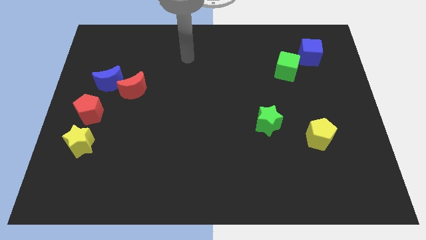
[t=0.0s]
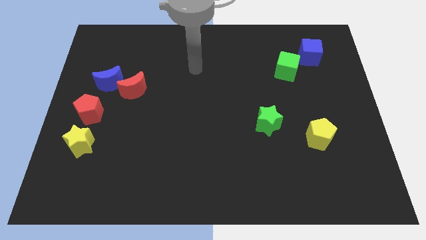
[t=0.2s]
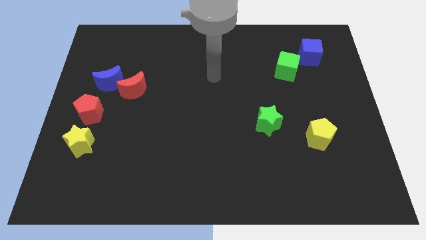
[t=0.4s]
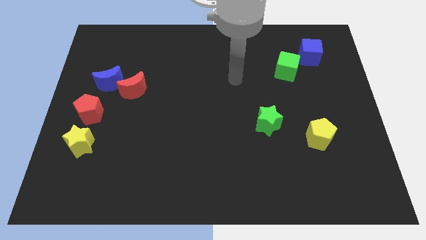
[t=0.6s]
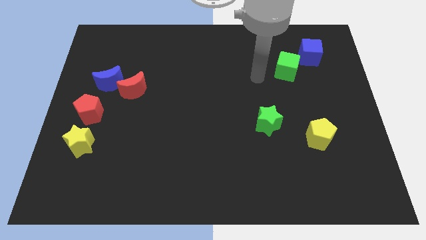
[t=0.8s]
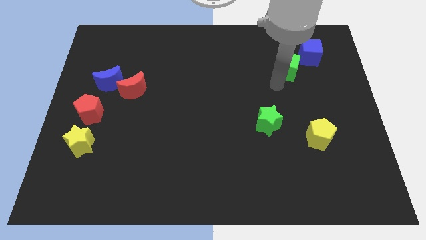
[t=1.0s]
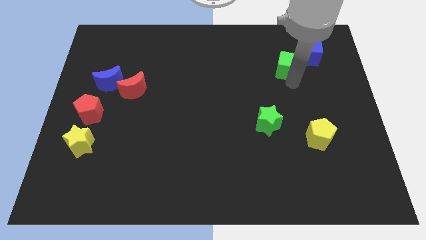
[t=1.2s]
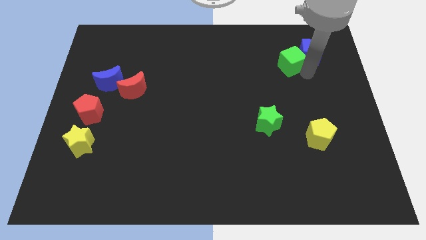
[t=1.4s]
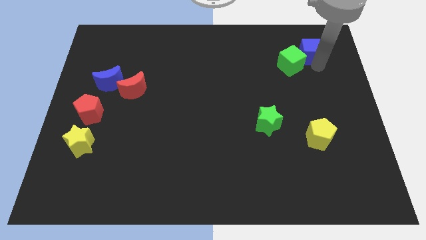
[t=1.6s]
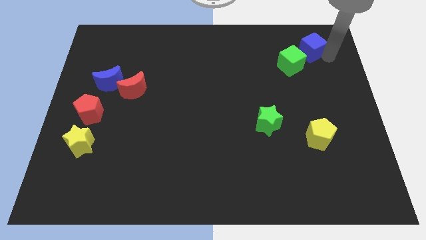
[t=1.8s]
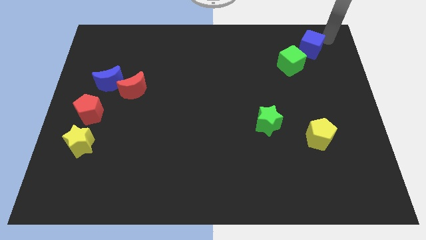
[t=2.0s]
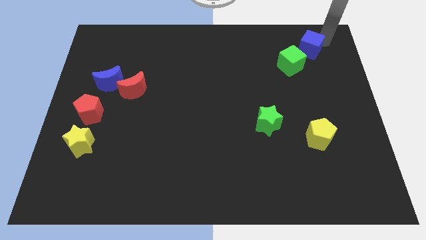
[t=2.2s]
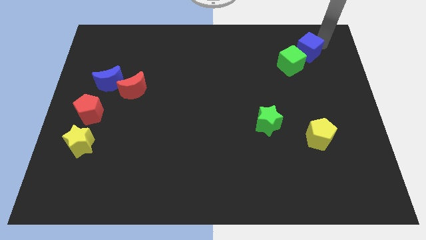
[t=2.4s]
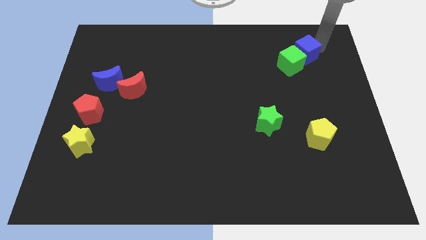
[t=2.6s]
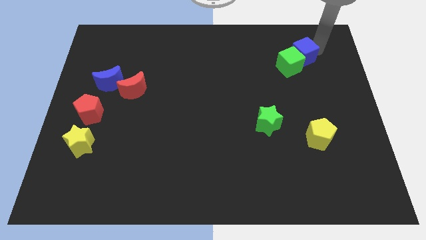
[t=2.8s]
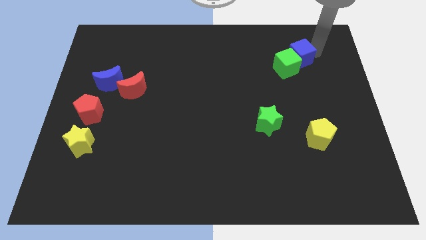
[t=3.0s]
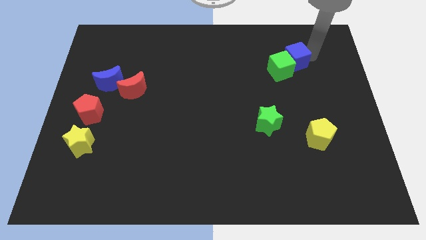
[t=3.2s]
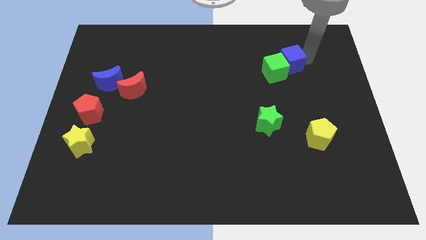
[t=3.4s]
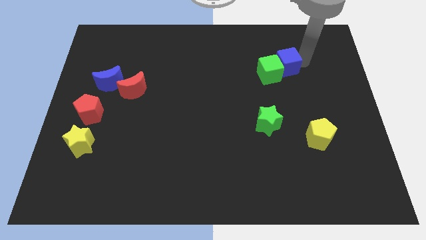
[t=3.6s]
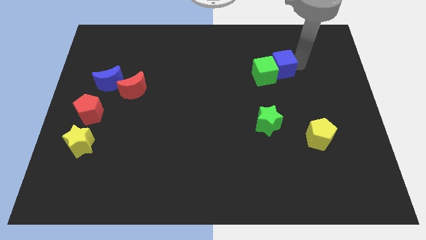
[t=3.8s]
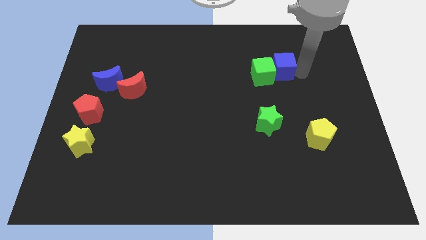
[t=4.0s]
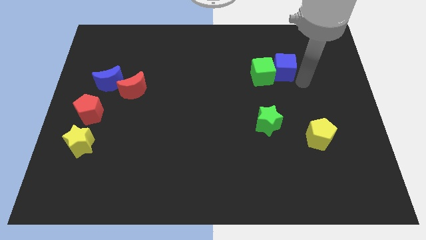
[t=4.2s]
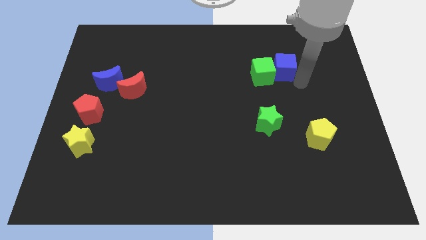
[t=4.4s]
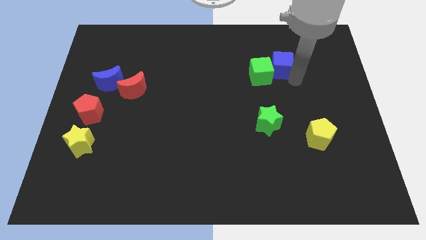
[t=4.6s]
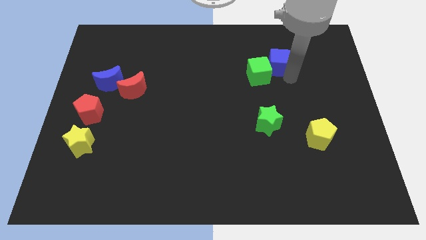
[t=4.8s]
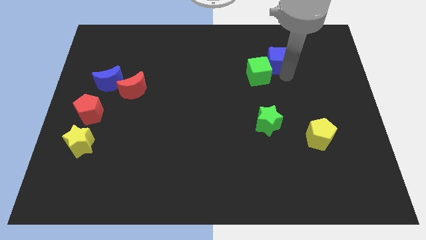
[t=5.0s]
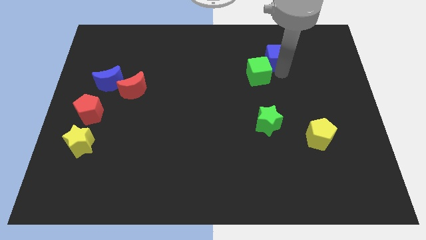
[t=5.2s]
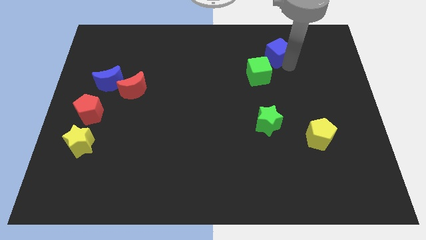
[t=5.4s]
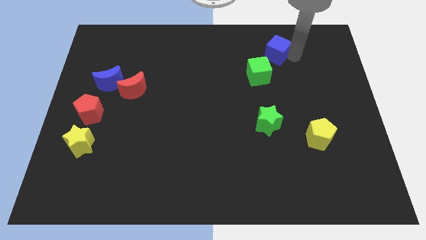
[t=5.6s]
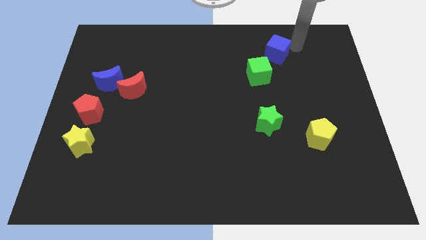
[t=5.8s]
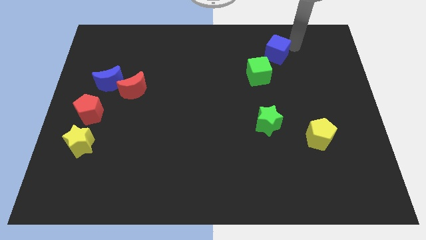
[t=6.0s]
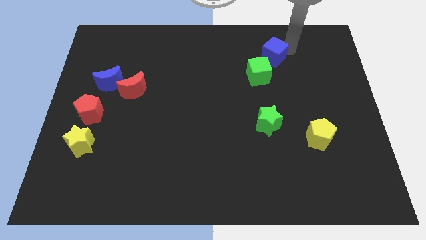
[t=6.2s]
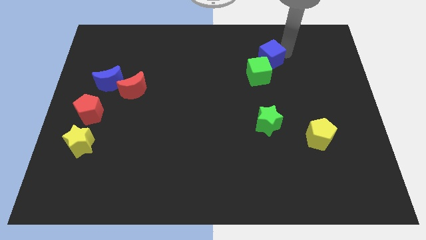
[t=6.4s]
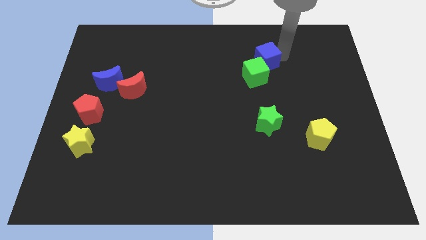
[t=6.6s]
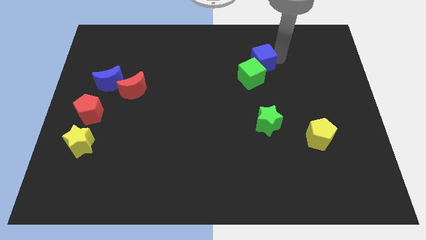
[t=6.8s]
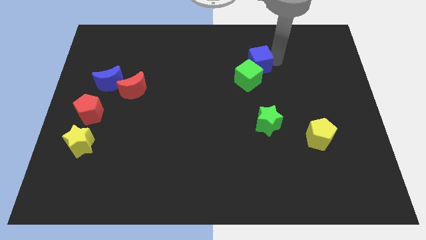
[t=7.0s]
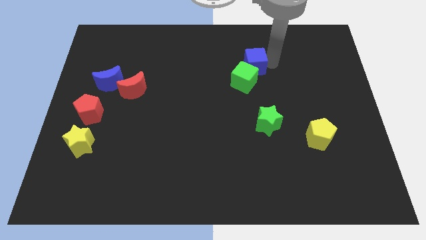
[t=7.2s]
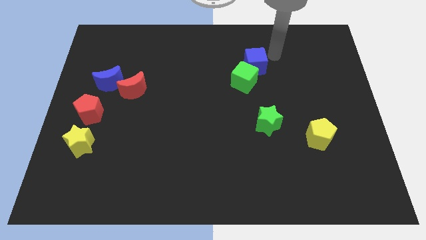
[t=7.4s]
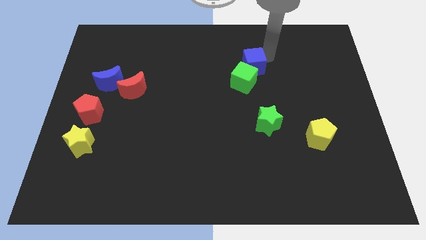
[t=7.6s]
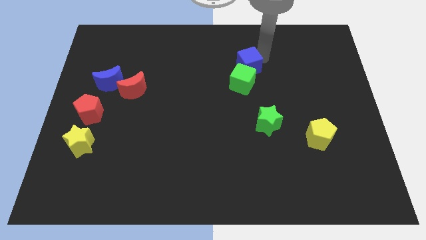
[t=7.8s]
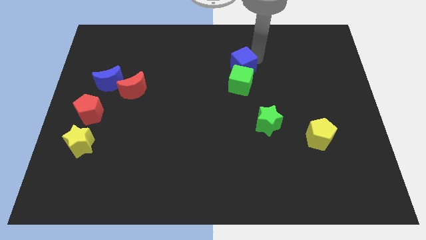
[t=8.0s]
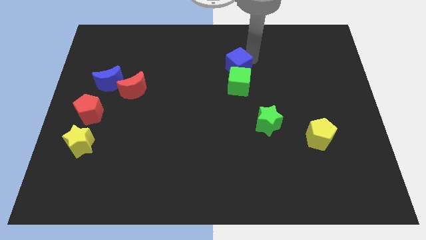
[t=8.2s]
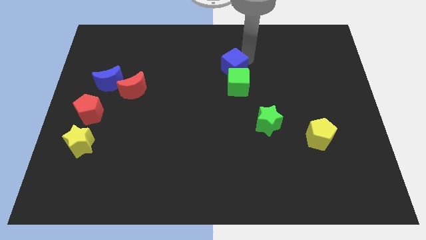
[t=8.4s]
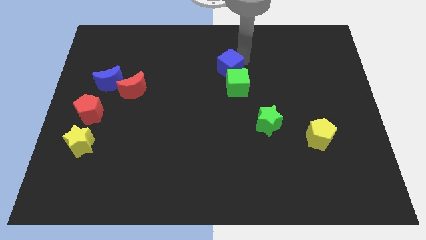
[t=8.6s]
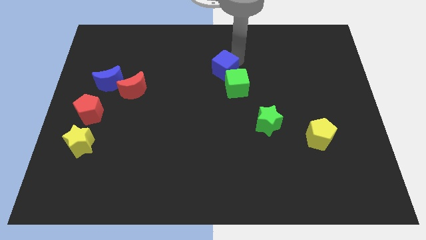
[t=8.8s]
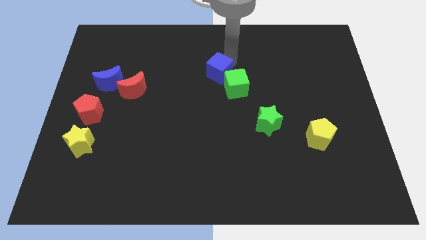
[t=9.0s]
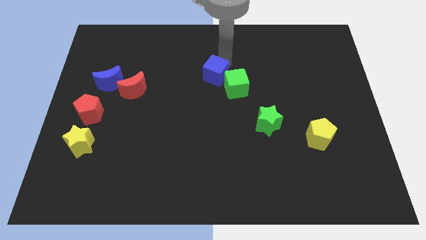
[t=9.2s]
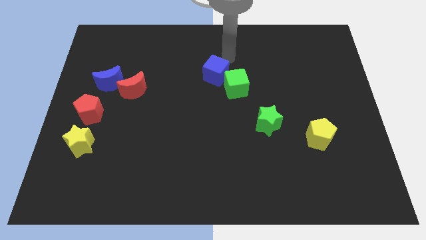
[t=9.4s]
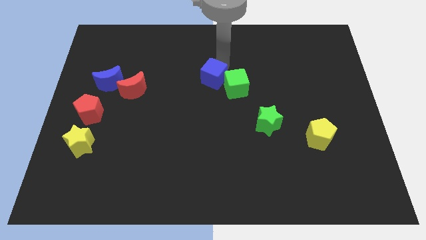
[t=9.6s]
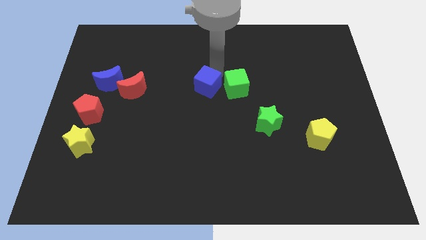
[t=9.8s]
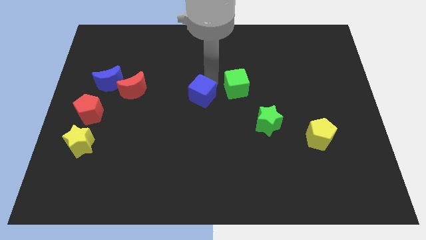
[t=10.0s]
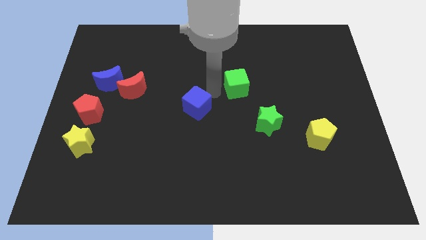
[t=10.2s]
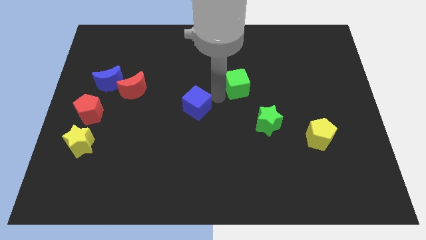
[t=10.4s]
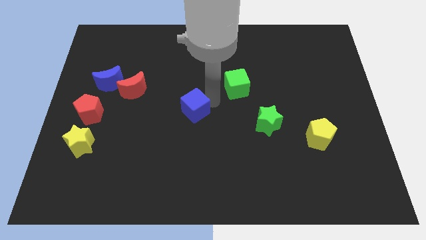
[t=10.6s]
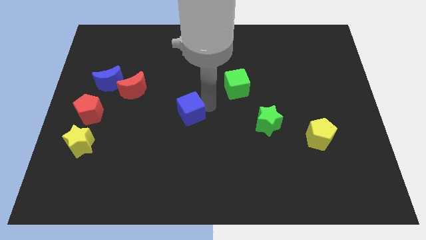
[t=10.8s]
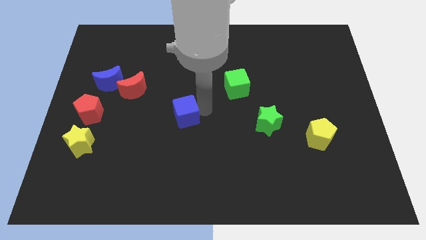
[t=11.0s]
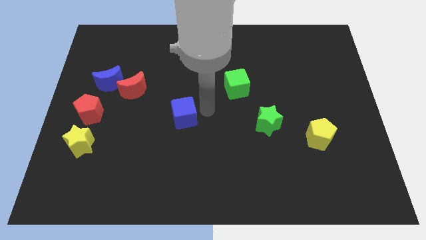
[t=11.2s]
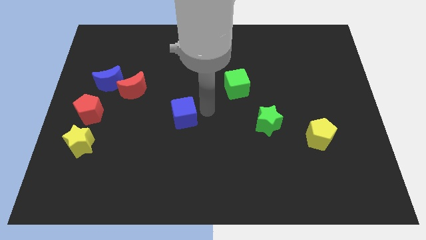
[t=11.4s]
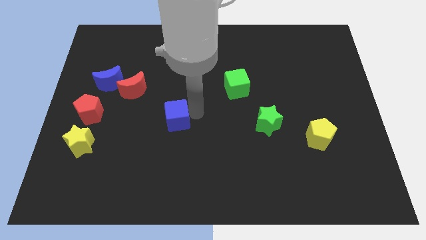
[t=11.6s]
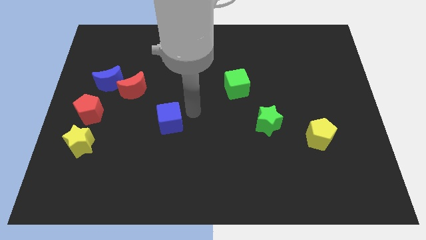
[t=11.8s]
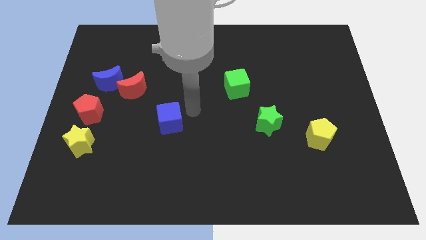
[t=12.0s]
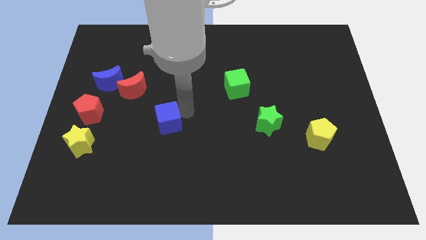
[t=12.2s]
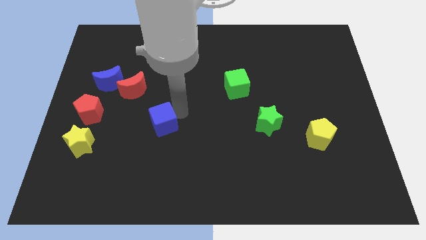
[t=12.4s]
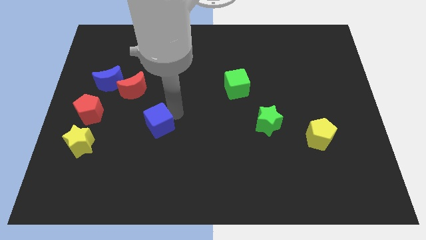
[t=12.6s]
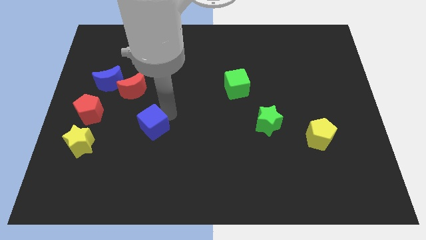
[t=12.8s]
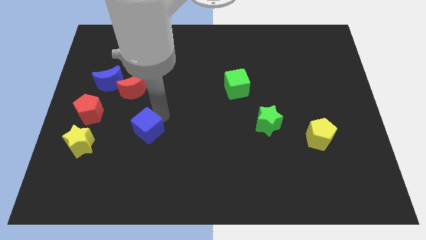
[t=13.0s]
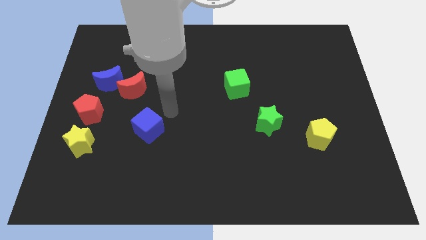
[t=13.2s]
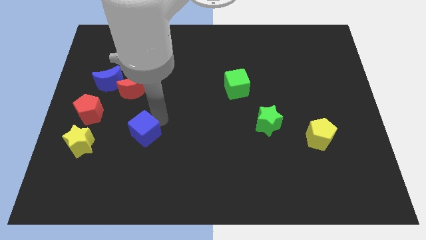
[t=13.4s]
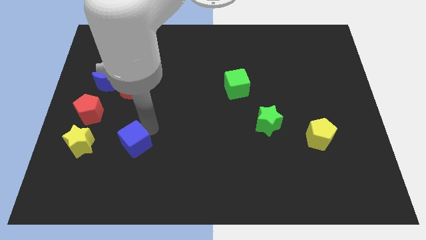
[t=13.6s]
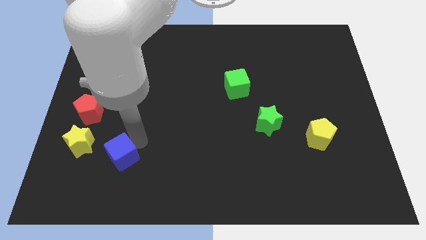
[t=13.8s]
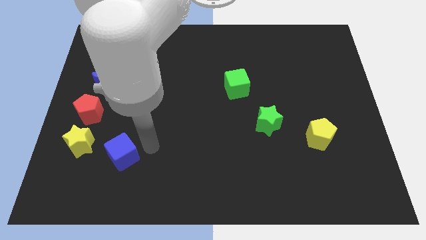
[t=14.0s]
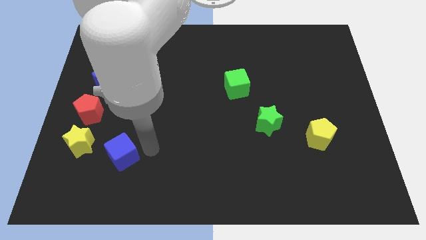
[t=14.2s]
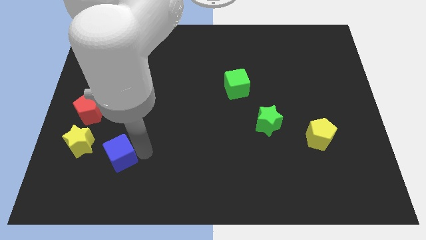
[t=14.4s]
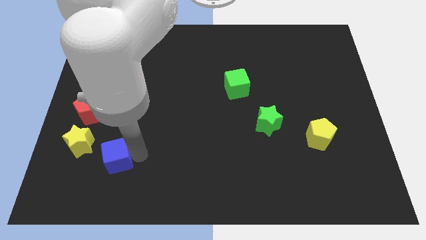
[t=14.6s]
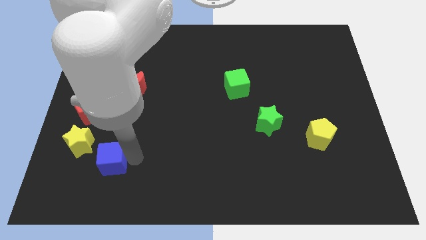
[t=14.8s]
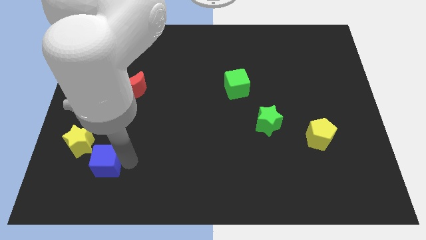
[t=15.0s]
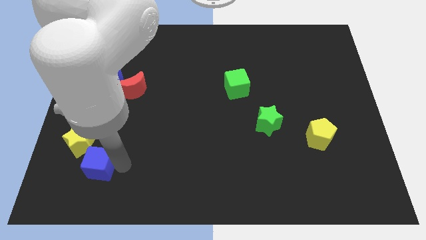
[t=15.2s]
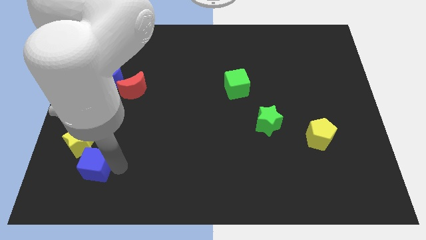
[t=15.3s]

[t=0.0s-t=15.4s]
put the blue cube below the red pentagon
